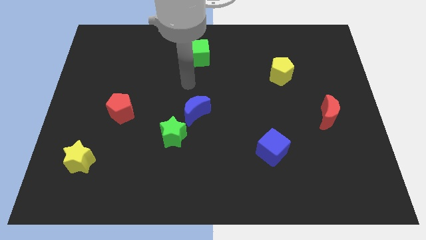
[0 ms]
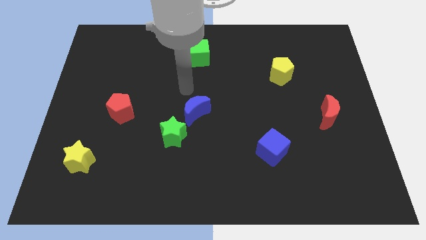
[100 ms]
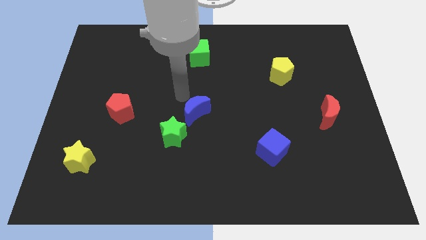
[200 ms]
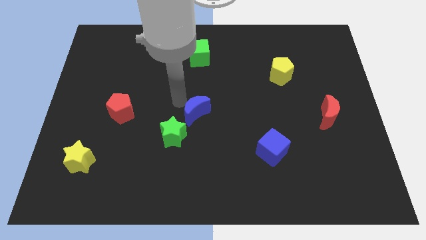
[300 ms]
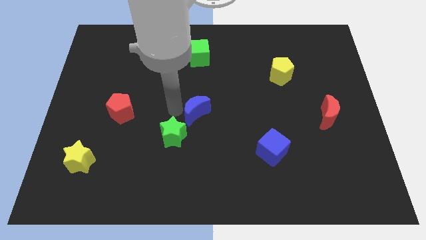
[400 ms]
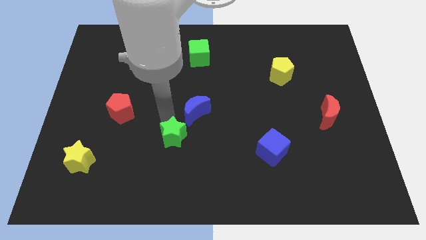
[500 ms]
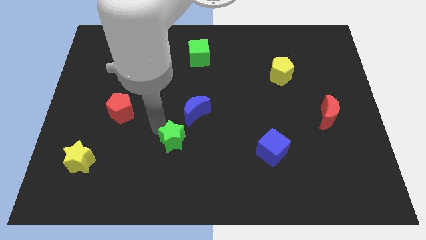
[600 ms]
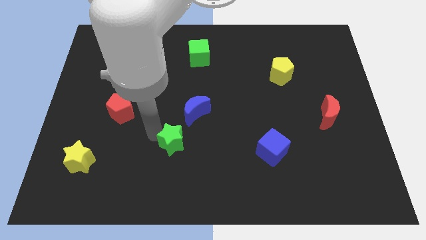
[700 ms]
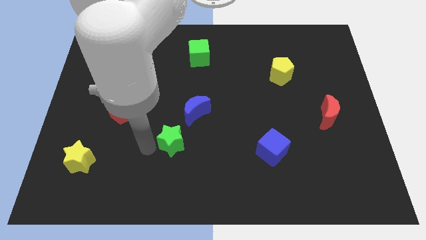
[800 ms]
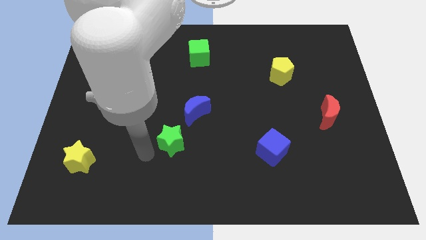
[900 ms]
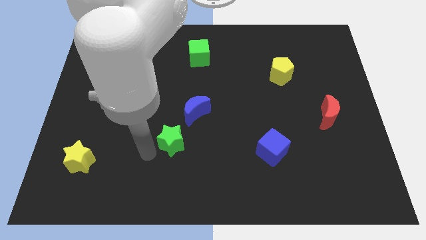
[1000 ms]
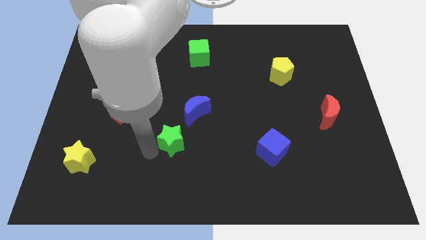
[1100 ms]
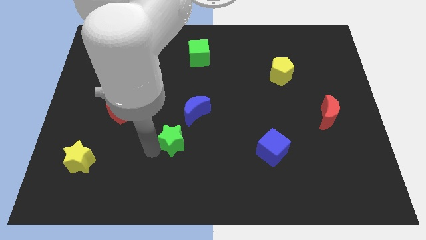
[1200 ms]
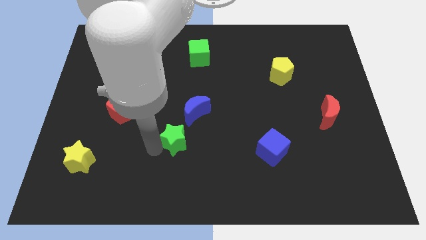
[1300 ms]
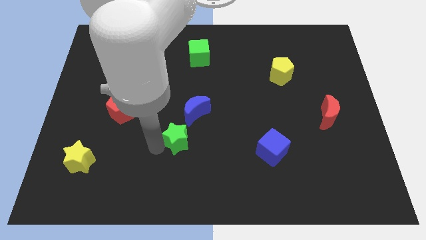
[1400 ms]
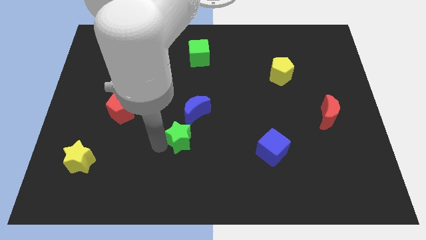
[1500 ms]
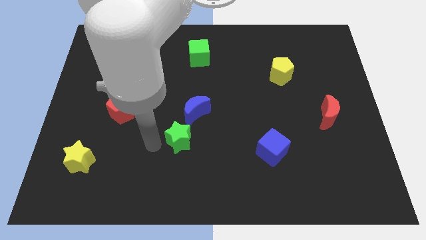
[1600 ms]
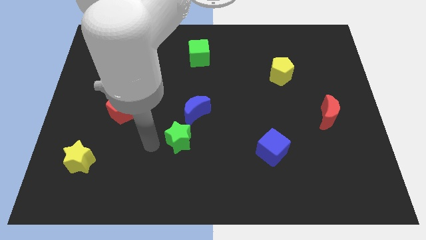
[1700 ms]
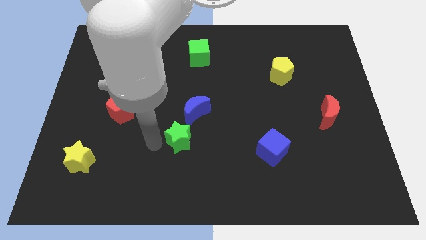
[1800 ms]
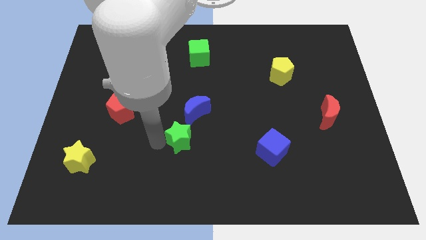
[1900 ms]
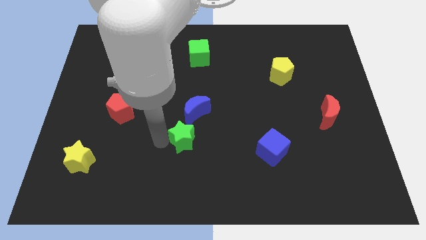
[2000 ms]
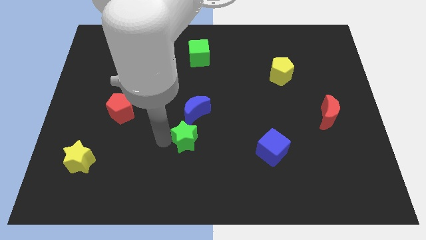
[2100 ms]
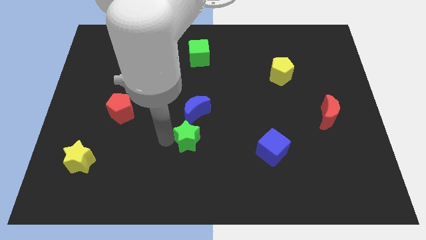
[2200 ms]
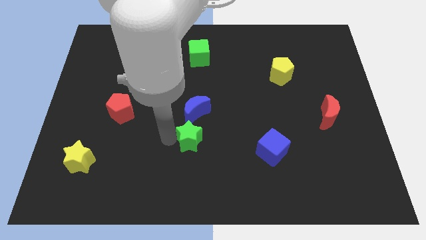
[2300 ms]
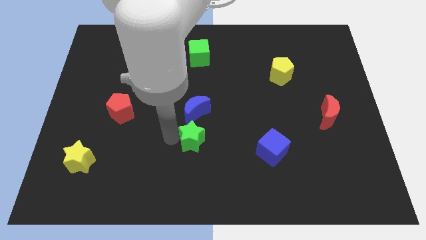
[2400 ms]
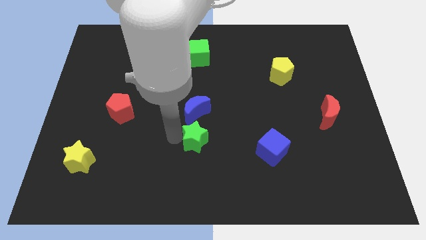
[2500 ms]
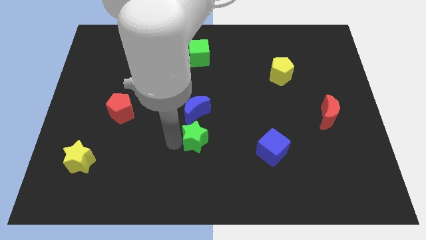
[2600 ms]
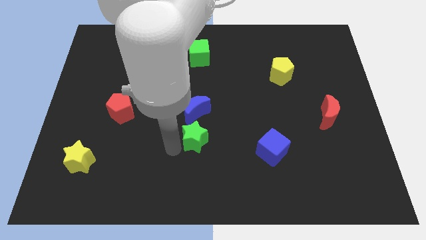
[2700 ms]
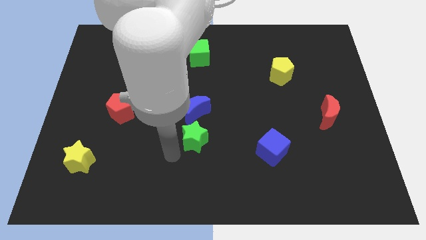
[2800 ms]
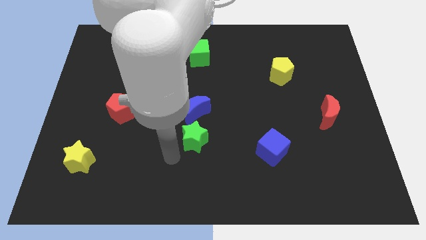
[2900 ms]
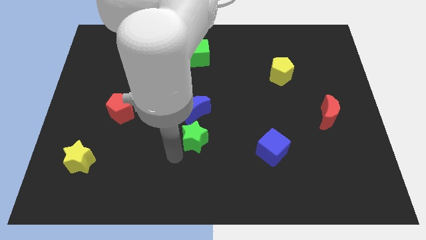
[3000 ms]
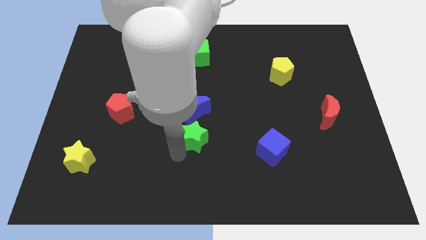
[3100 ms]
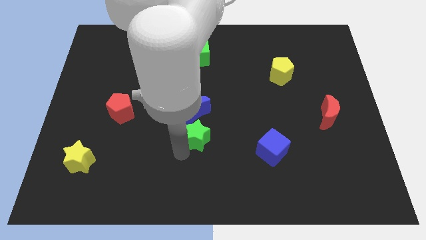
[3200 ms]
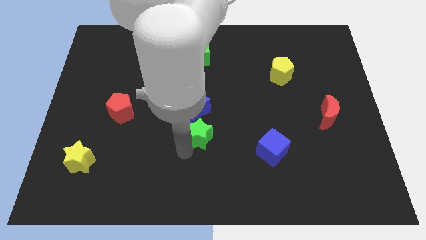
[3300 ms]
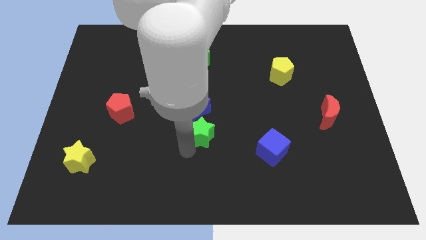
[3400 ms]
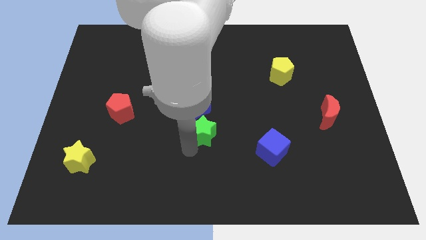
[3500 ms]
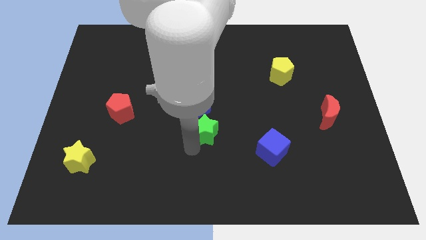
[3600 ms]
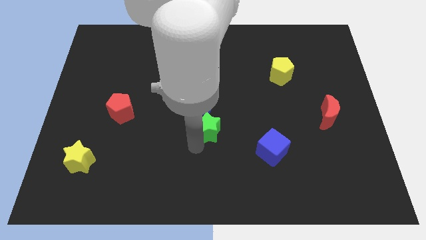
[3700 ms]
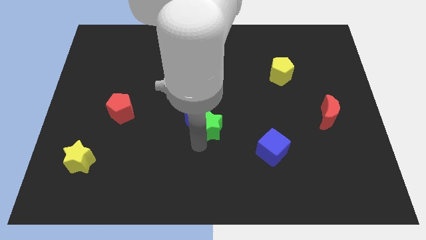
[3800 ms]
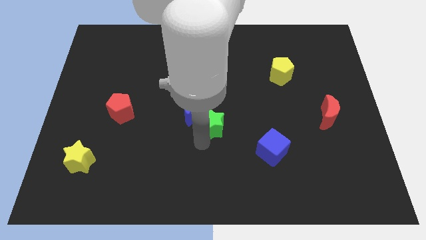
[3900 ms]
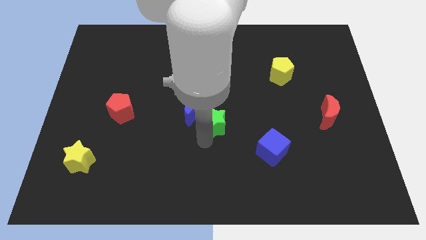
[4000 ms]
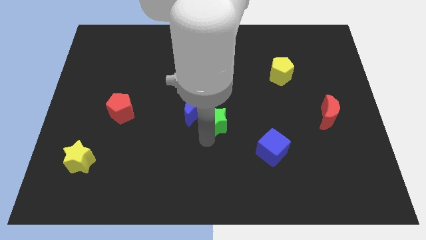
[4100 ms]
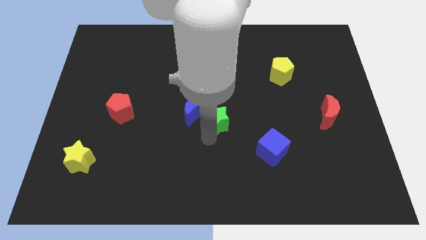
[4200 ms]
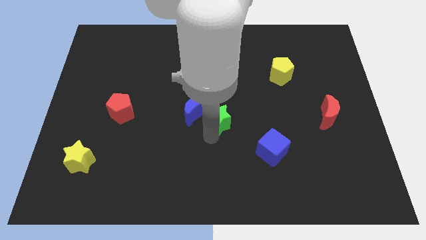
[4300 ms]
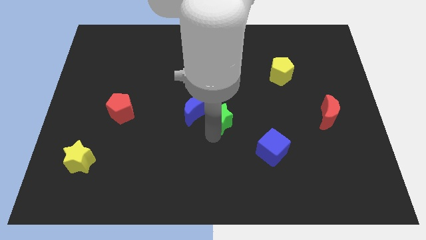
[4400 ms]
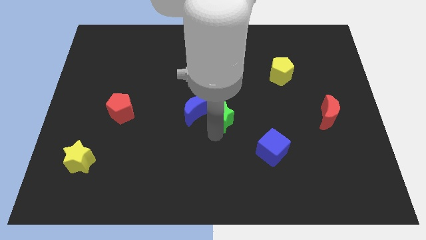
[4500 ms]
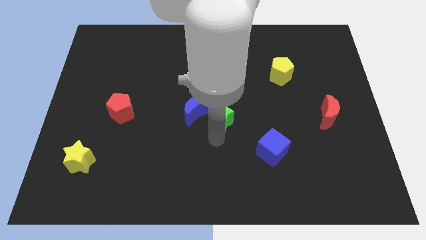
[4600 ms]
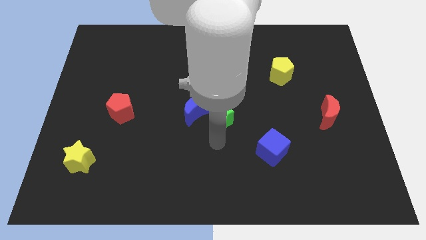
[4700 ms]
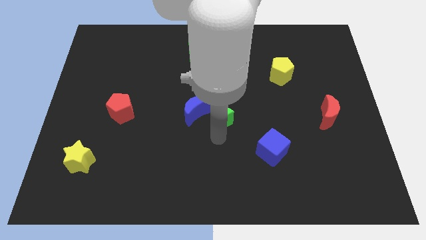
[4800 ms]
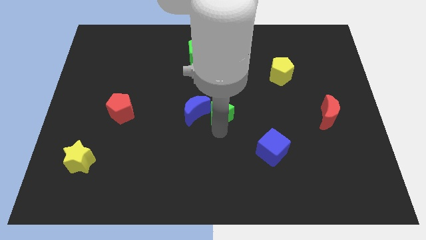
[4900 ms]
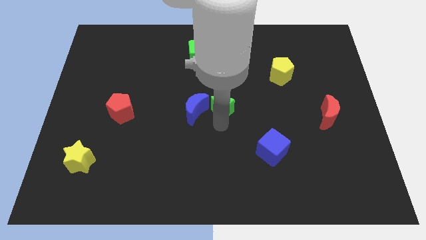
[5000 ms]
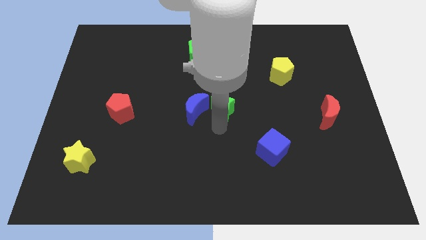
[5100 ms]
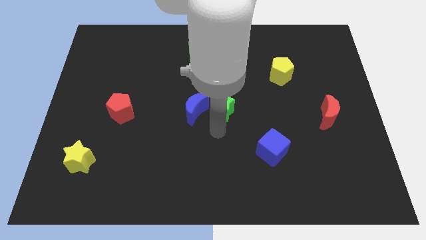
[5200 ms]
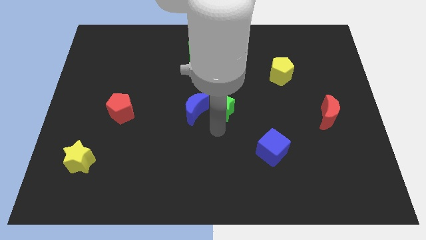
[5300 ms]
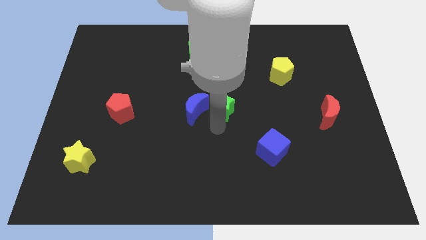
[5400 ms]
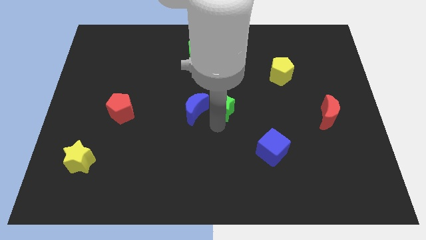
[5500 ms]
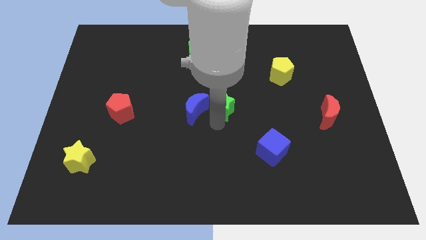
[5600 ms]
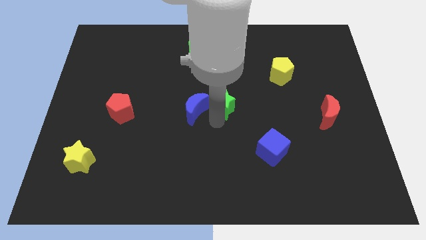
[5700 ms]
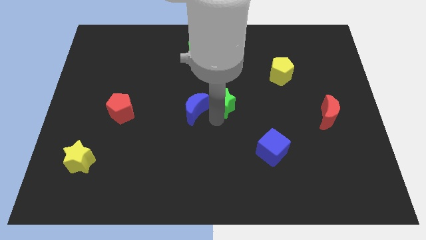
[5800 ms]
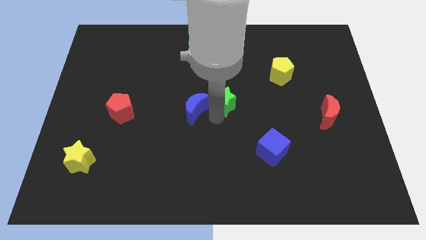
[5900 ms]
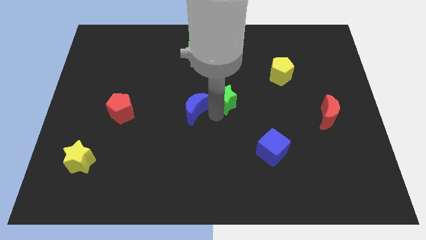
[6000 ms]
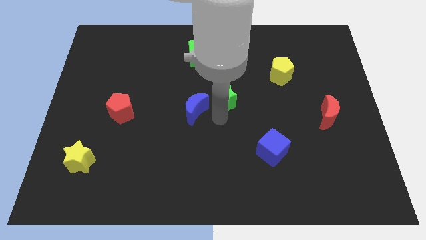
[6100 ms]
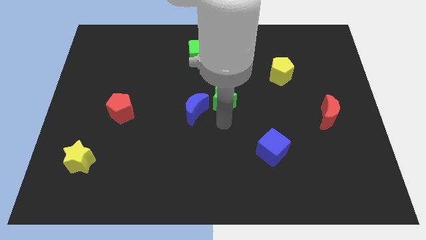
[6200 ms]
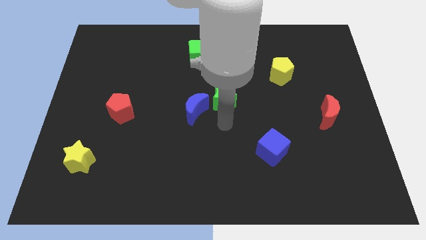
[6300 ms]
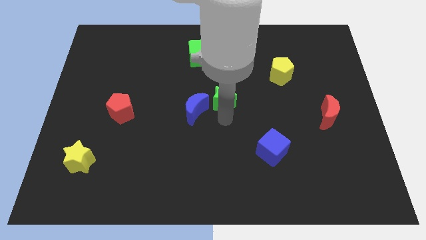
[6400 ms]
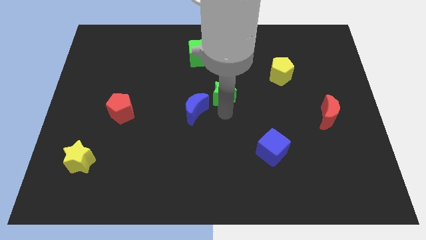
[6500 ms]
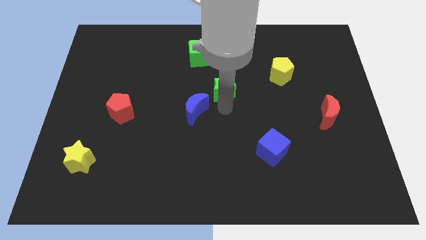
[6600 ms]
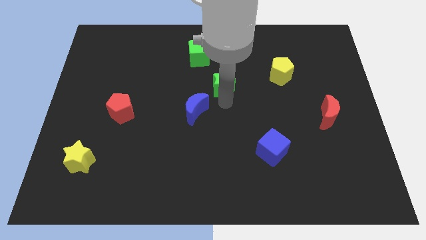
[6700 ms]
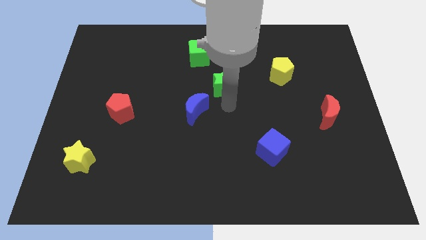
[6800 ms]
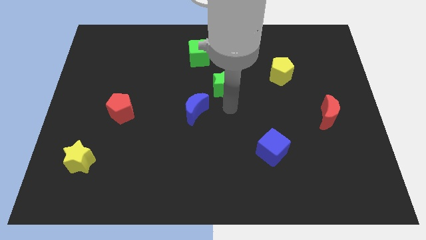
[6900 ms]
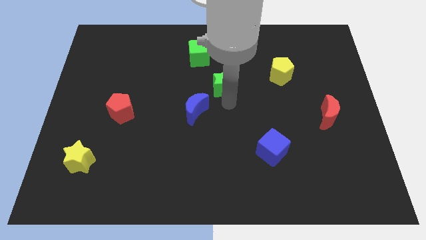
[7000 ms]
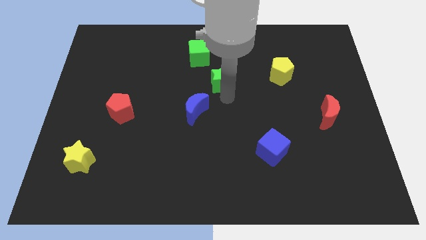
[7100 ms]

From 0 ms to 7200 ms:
slide the green star diagonally down and to the right of the green cube
